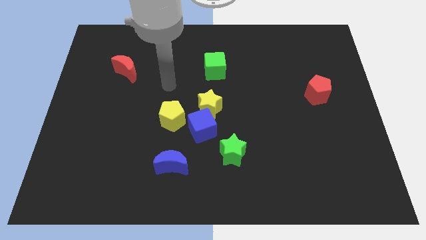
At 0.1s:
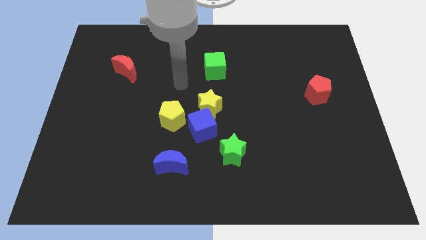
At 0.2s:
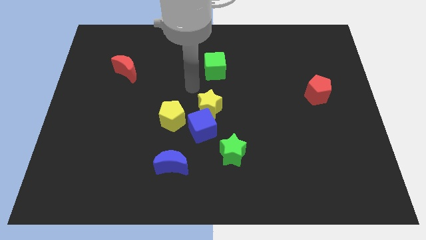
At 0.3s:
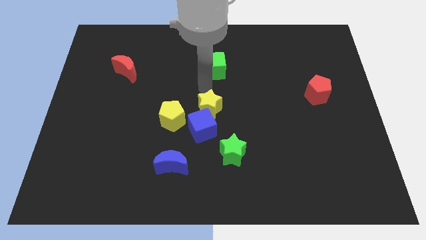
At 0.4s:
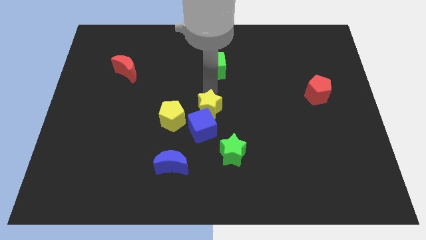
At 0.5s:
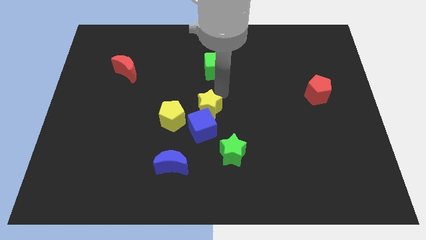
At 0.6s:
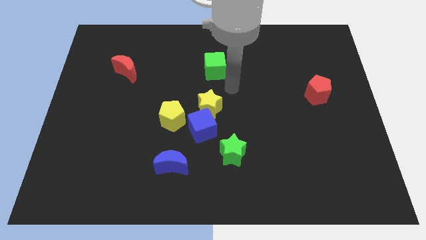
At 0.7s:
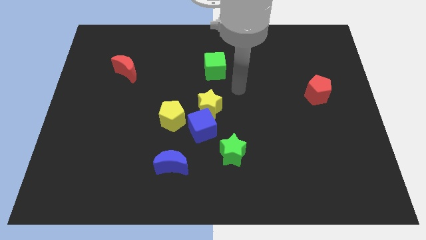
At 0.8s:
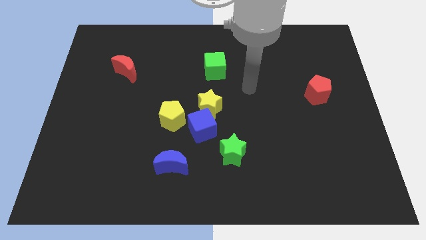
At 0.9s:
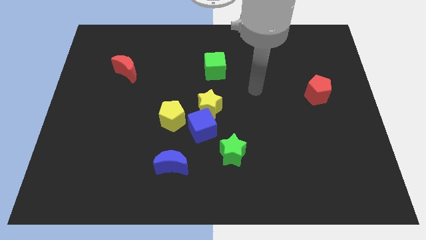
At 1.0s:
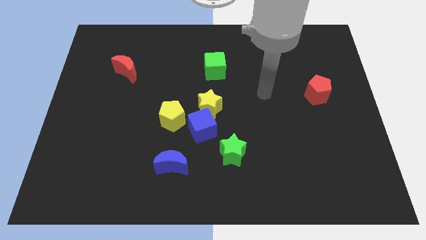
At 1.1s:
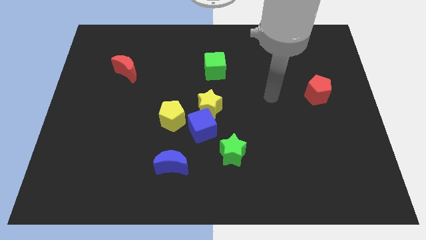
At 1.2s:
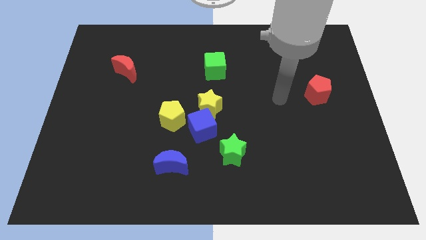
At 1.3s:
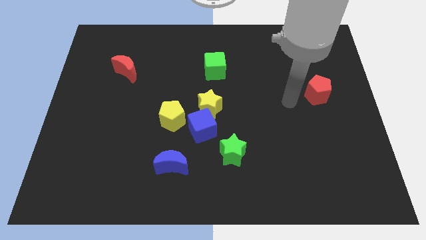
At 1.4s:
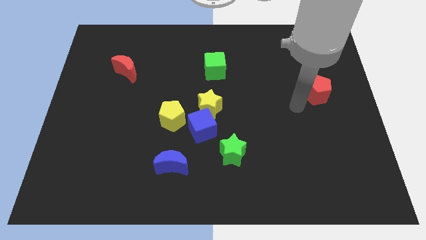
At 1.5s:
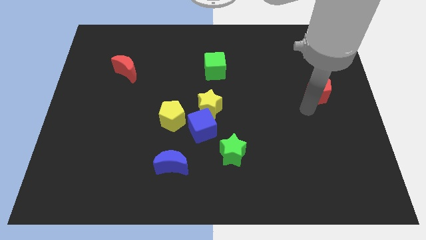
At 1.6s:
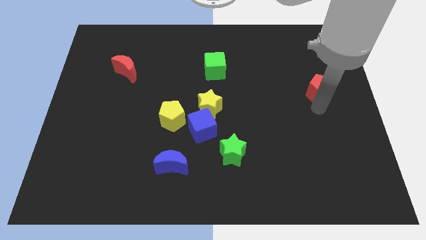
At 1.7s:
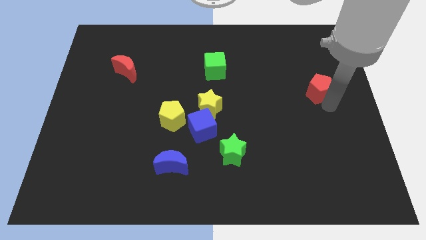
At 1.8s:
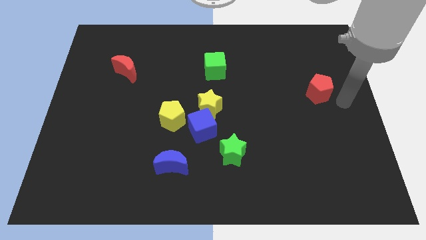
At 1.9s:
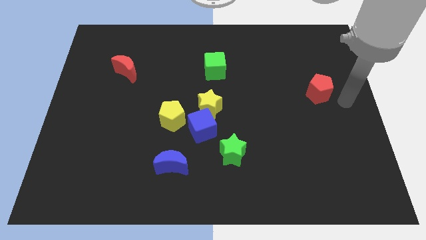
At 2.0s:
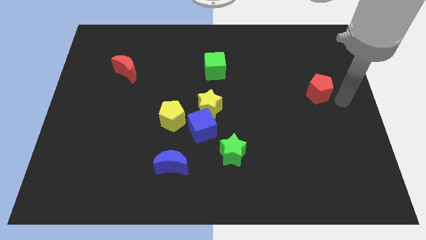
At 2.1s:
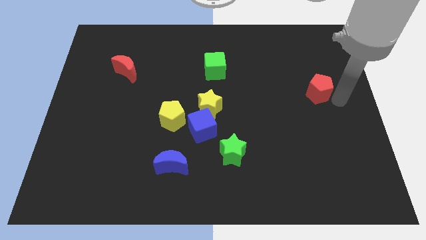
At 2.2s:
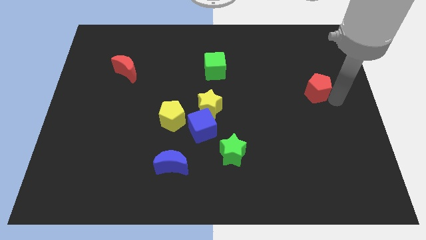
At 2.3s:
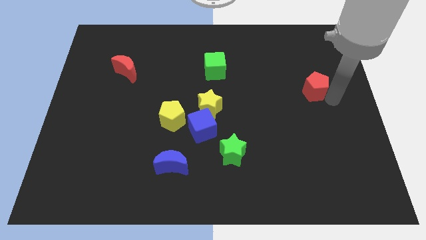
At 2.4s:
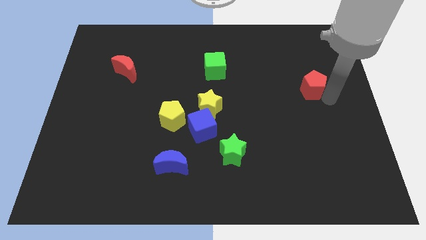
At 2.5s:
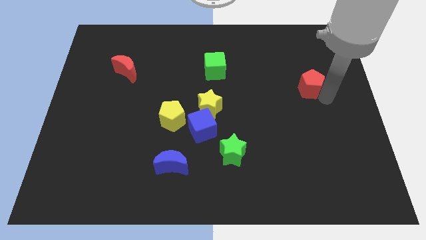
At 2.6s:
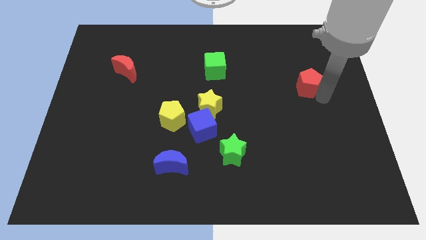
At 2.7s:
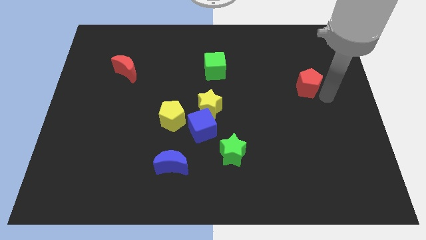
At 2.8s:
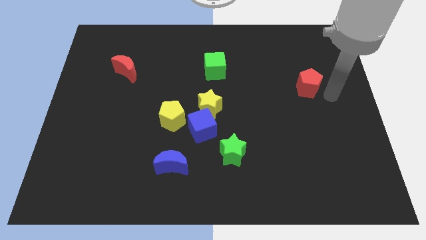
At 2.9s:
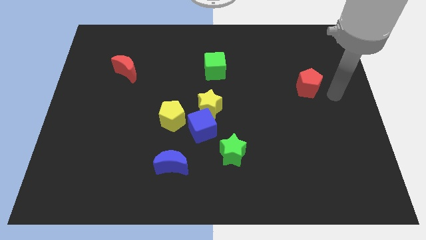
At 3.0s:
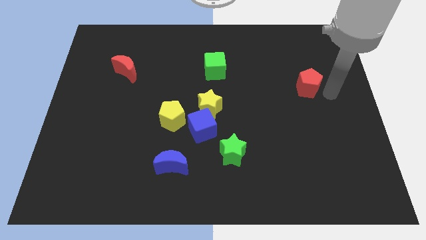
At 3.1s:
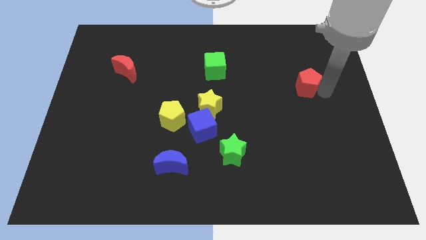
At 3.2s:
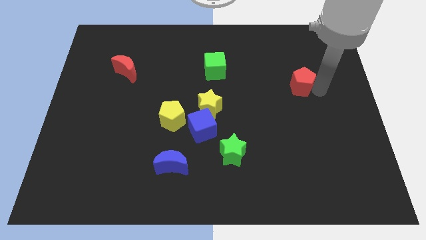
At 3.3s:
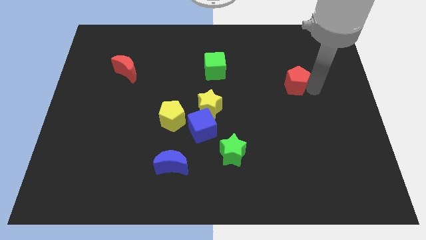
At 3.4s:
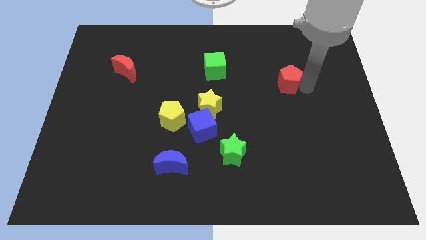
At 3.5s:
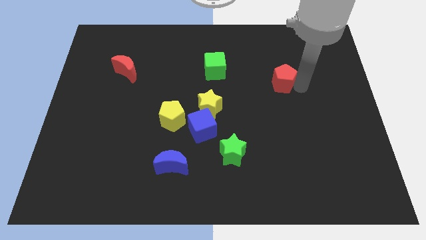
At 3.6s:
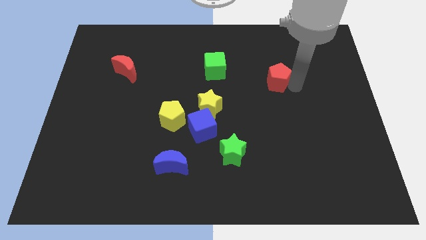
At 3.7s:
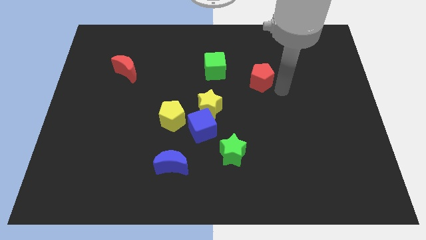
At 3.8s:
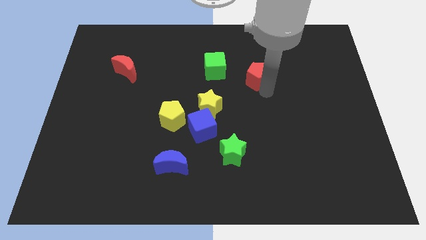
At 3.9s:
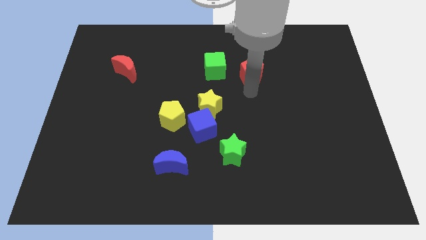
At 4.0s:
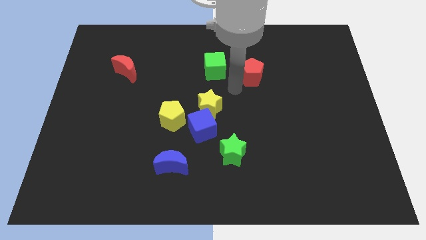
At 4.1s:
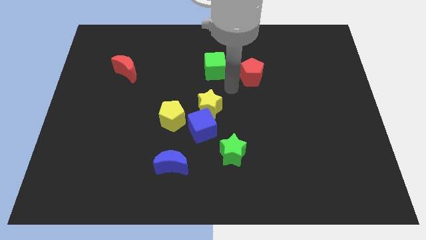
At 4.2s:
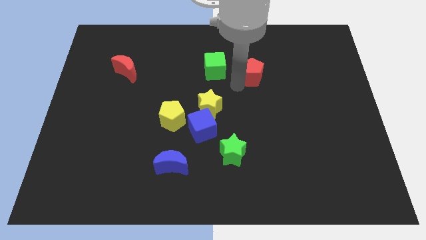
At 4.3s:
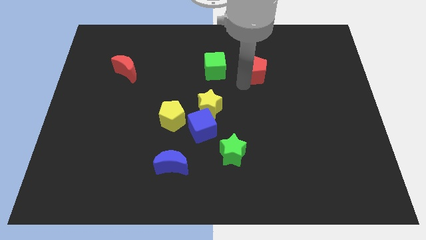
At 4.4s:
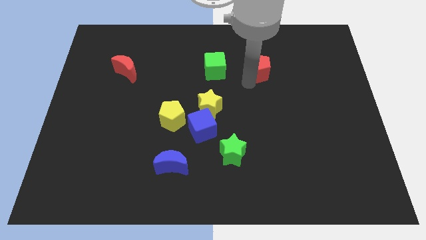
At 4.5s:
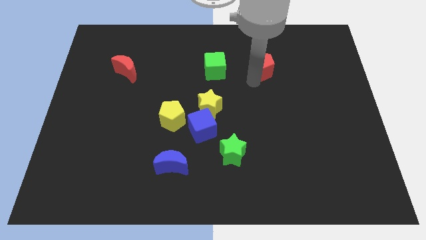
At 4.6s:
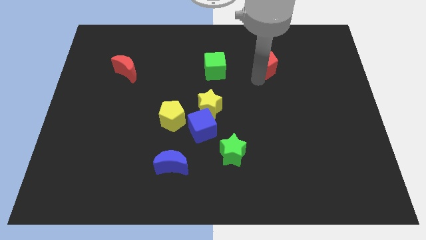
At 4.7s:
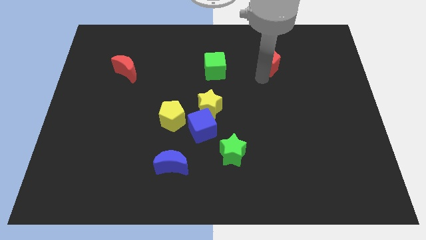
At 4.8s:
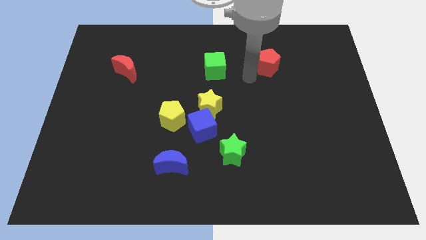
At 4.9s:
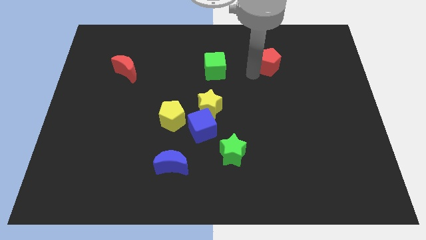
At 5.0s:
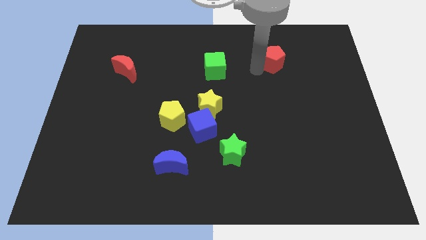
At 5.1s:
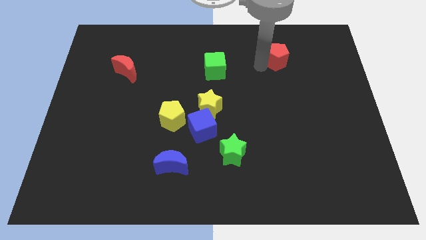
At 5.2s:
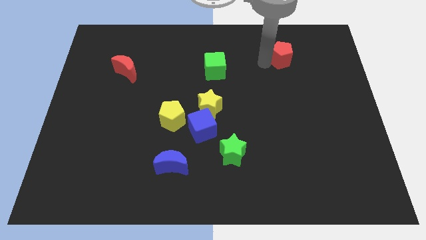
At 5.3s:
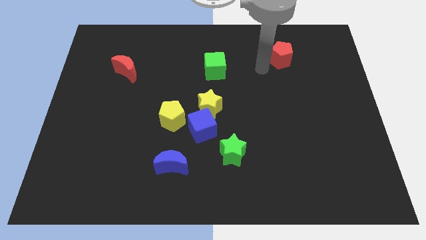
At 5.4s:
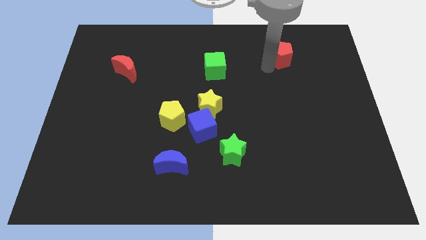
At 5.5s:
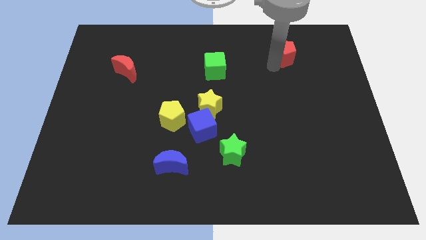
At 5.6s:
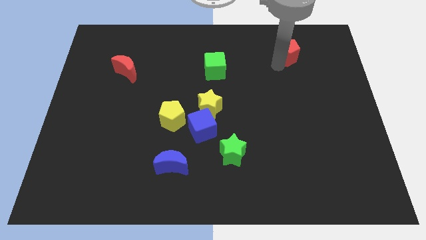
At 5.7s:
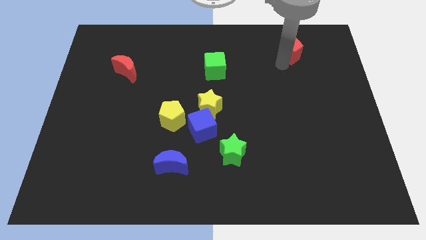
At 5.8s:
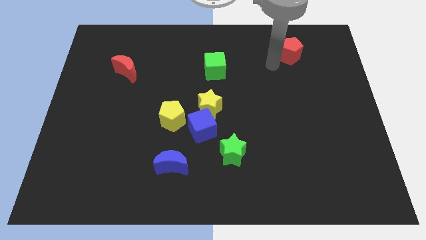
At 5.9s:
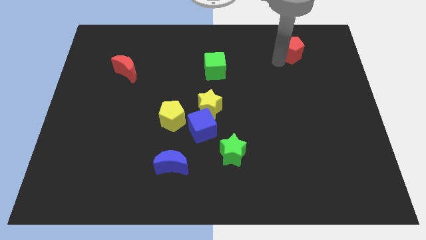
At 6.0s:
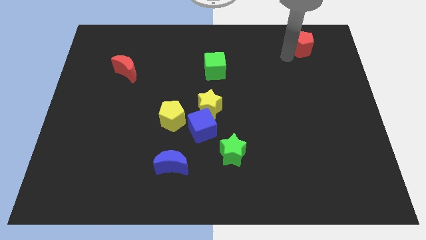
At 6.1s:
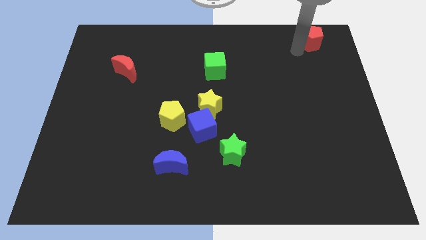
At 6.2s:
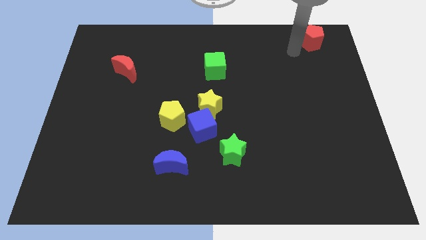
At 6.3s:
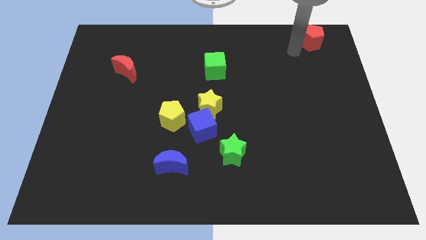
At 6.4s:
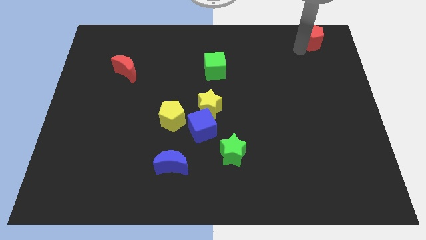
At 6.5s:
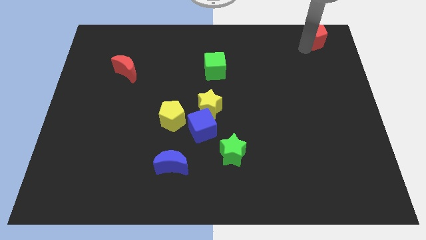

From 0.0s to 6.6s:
push the red pentagon to the top right
